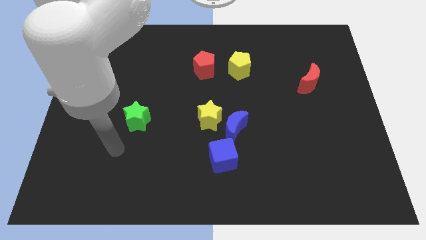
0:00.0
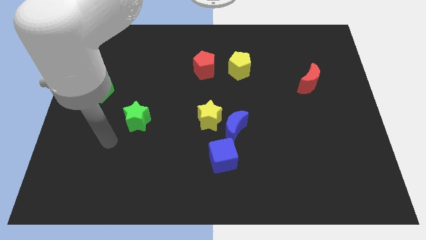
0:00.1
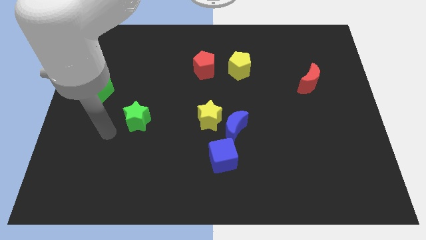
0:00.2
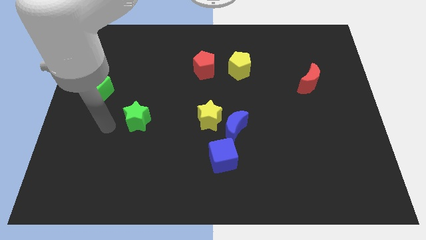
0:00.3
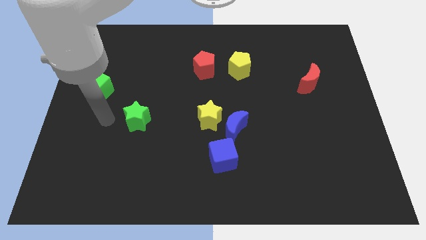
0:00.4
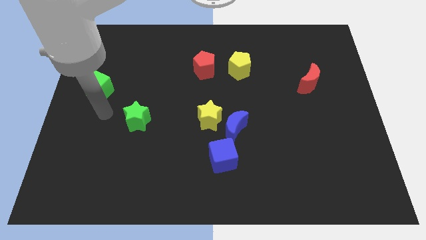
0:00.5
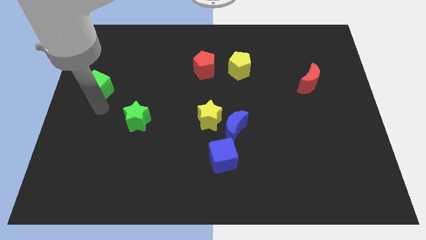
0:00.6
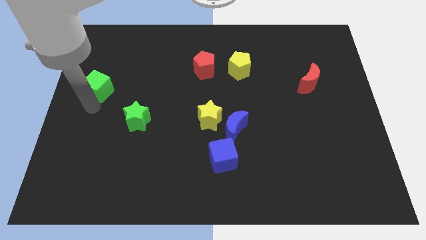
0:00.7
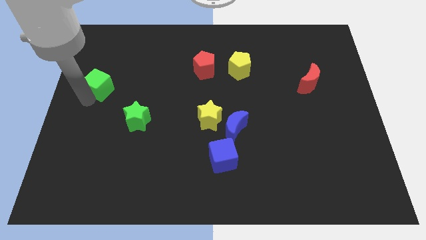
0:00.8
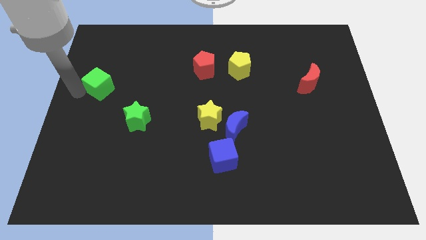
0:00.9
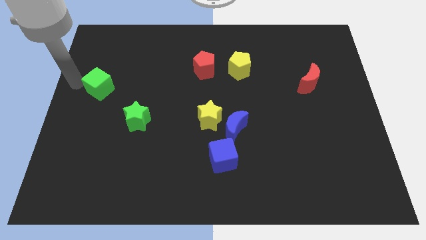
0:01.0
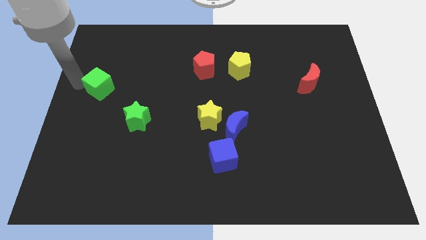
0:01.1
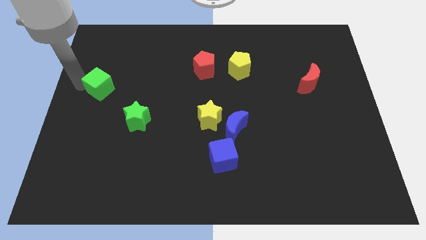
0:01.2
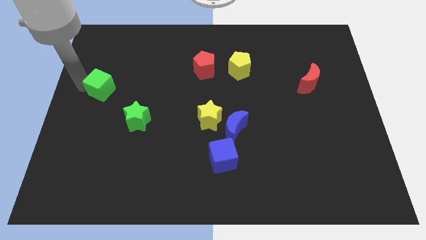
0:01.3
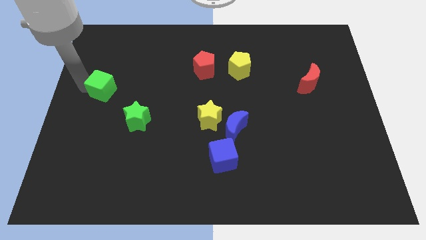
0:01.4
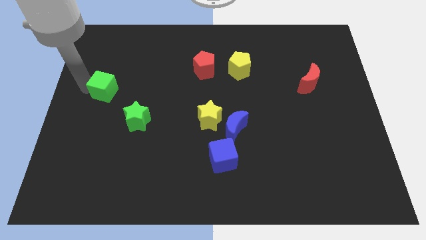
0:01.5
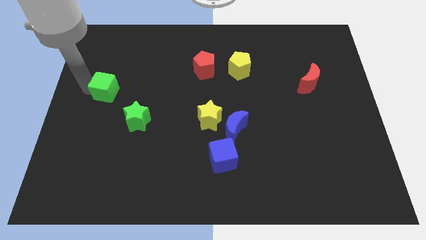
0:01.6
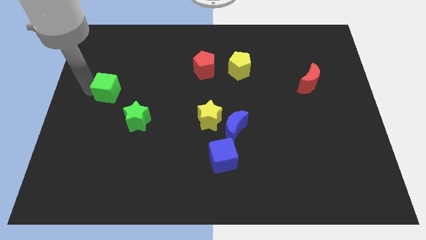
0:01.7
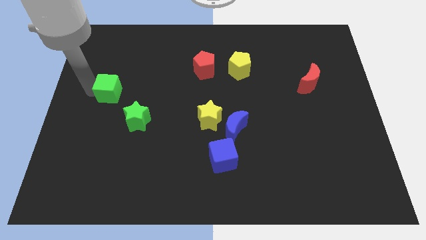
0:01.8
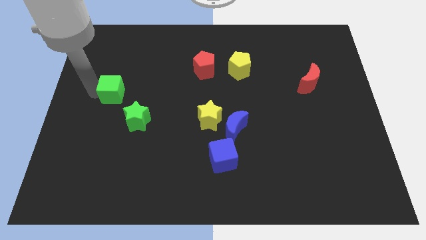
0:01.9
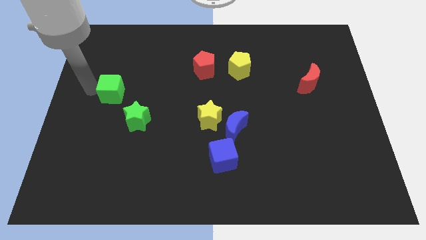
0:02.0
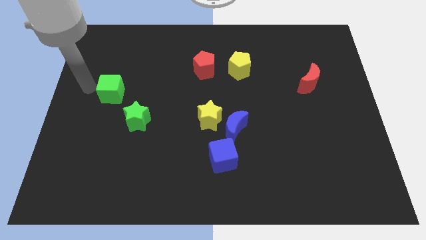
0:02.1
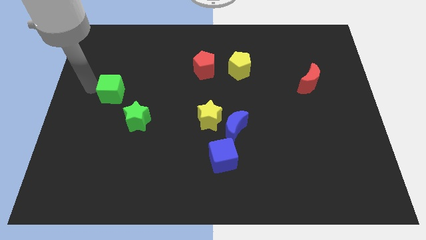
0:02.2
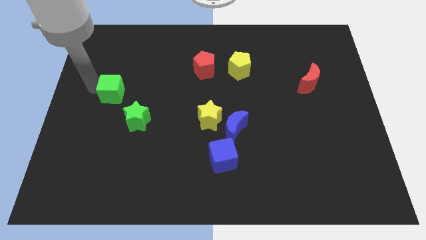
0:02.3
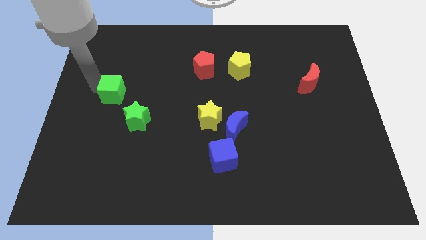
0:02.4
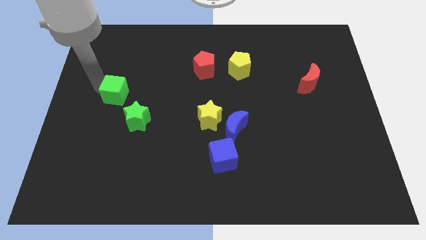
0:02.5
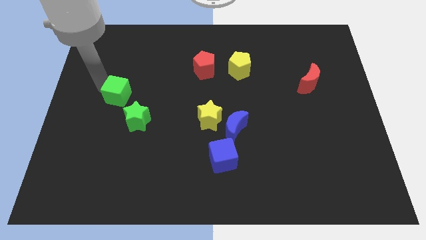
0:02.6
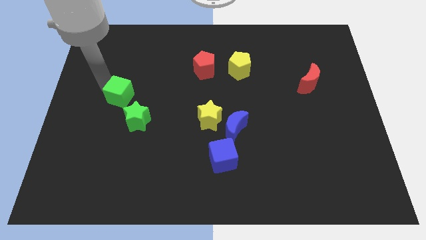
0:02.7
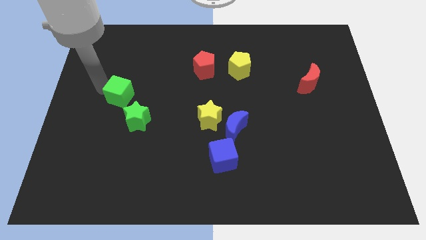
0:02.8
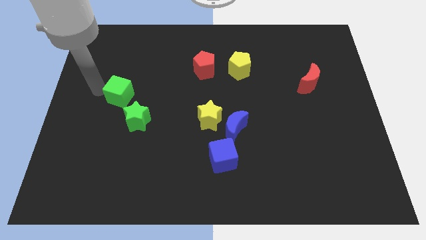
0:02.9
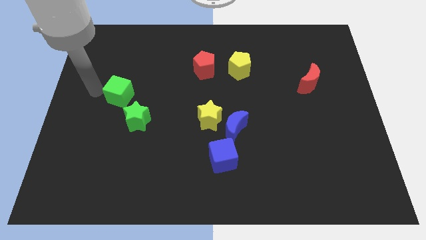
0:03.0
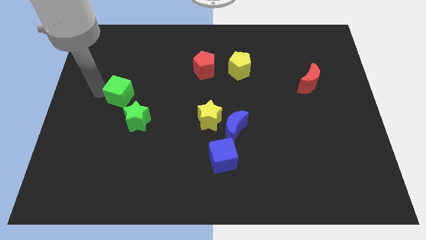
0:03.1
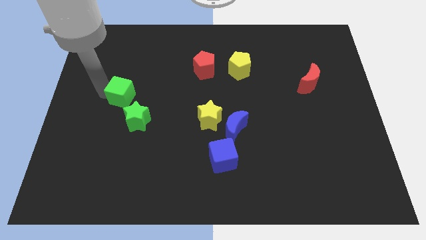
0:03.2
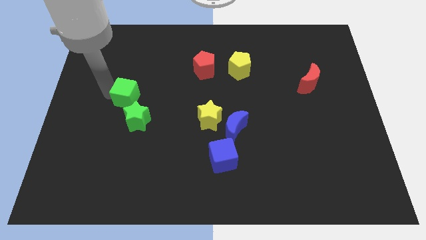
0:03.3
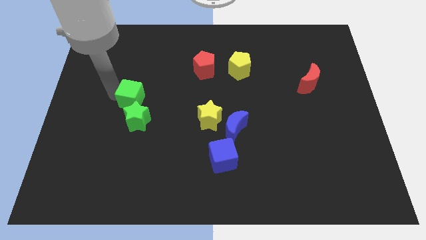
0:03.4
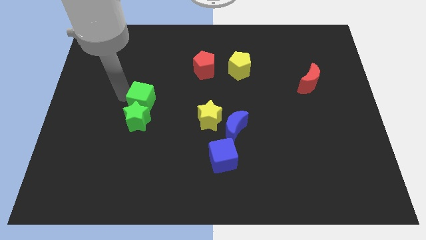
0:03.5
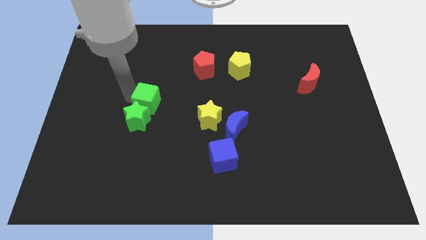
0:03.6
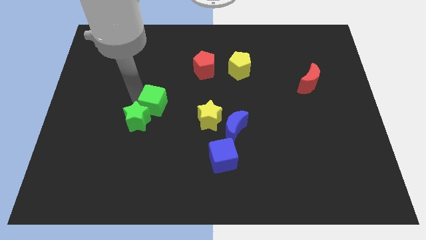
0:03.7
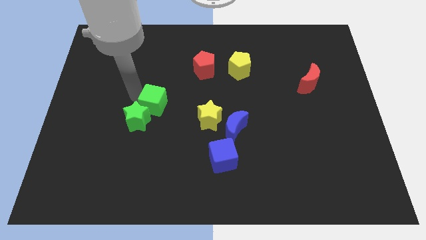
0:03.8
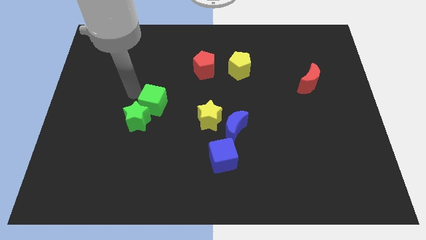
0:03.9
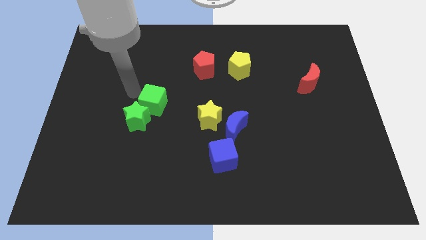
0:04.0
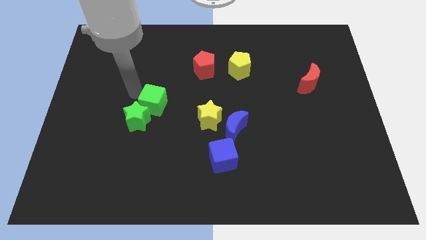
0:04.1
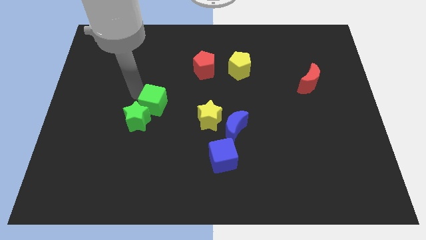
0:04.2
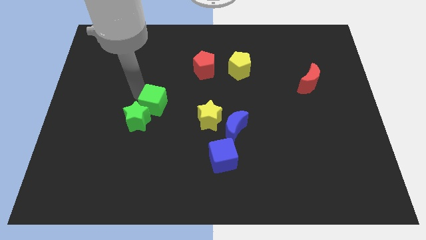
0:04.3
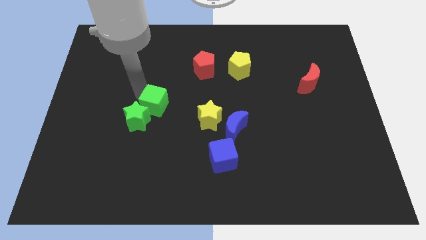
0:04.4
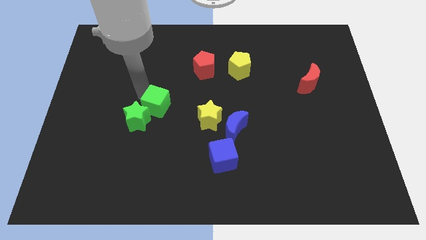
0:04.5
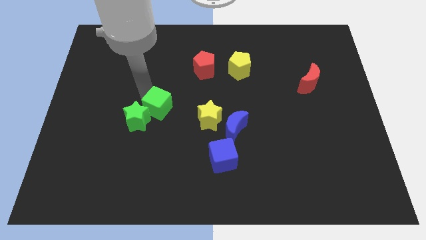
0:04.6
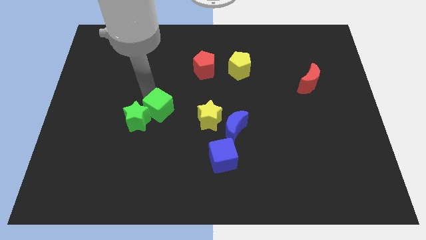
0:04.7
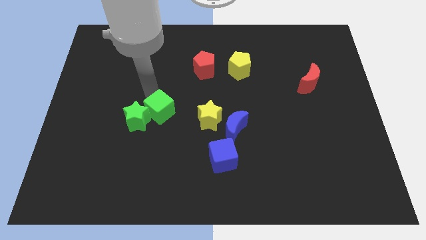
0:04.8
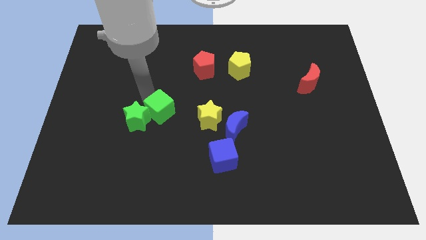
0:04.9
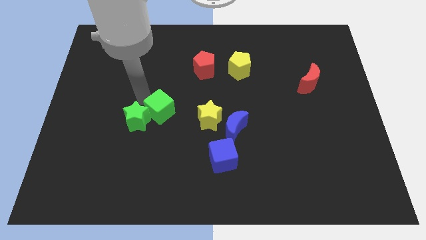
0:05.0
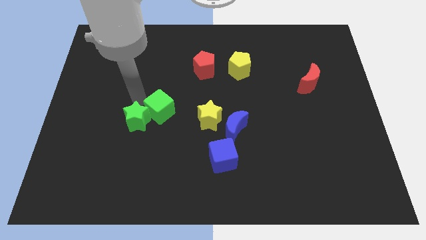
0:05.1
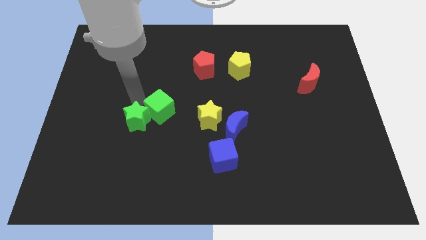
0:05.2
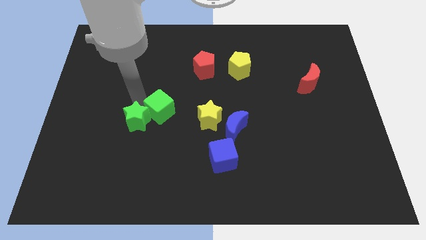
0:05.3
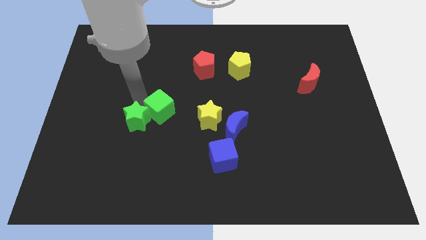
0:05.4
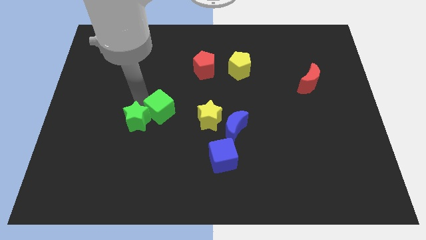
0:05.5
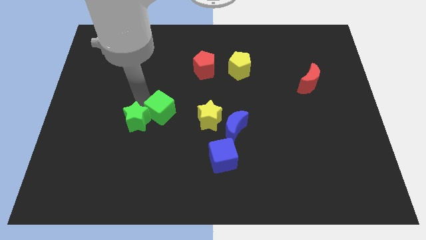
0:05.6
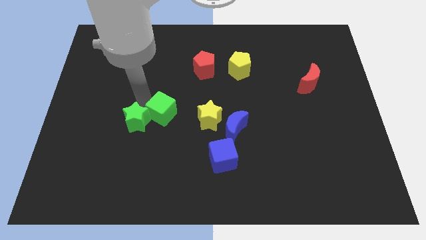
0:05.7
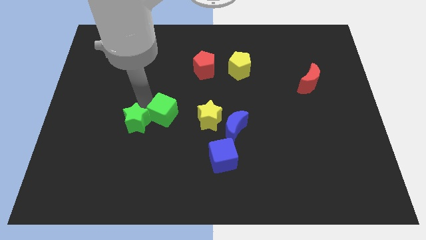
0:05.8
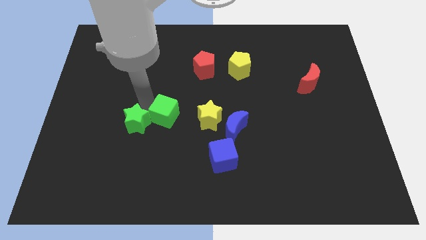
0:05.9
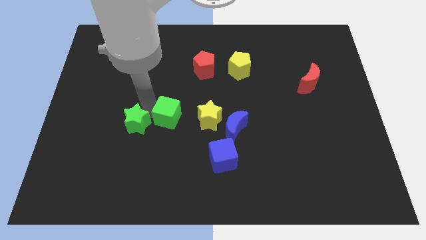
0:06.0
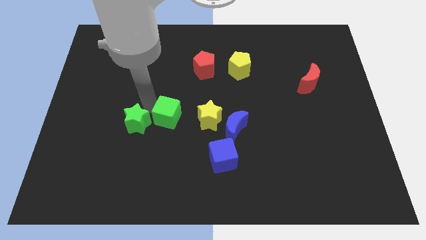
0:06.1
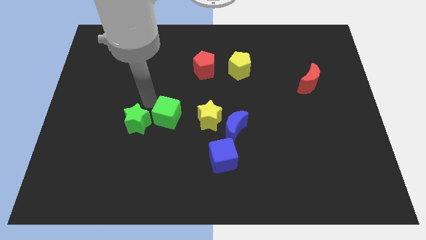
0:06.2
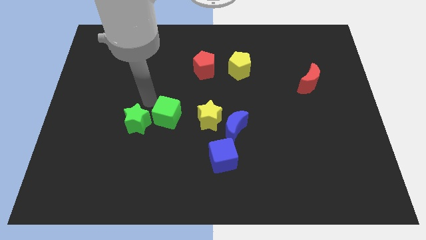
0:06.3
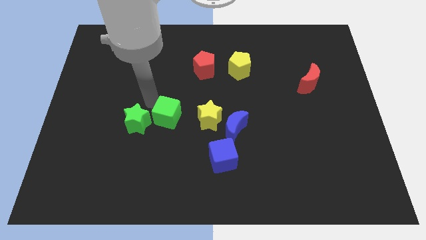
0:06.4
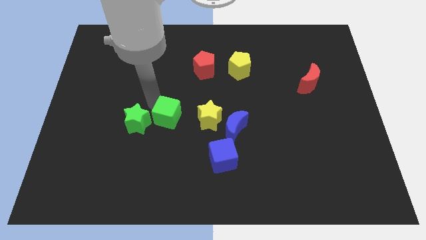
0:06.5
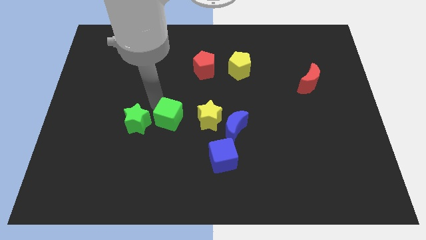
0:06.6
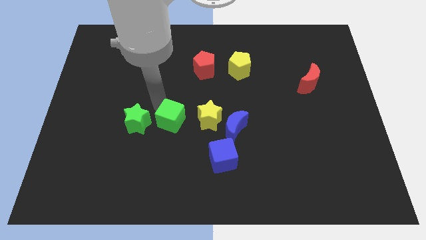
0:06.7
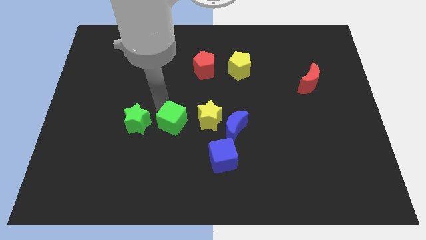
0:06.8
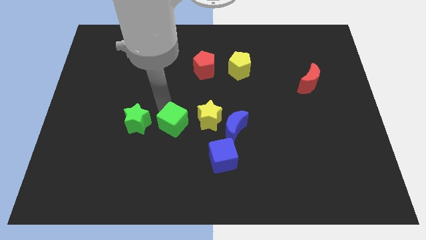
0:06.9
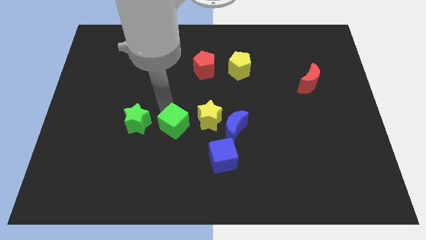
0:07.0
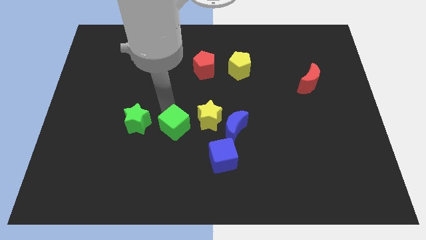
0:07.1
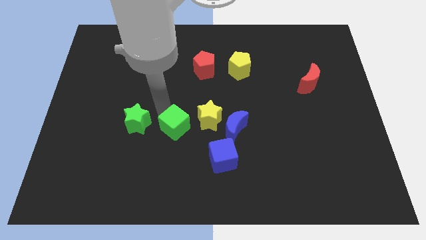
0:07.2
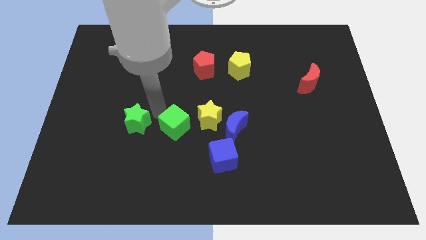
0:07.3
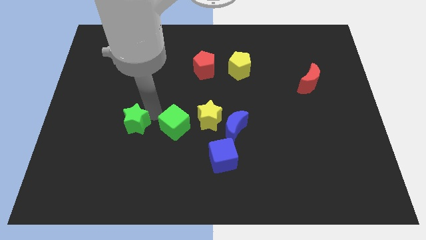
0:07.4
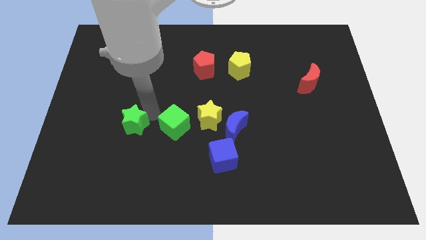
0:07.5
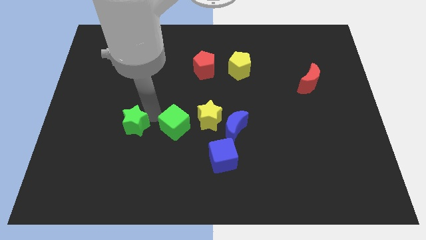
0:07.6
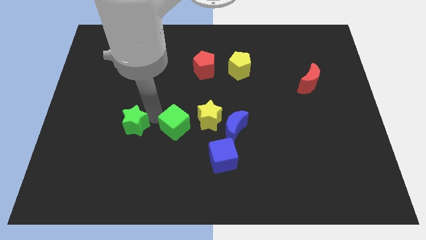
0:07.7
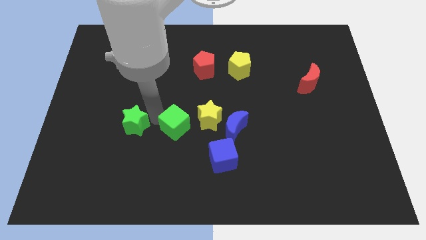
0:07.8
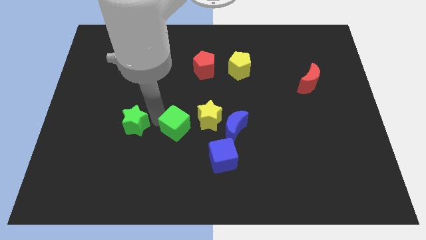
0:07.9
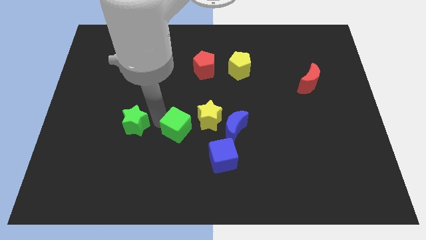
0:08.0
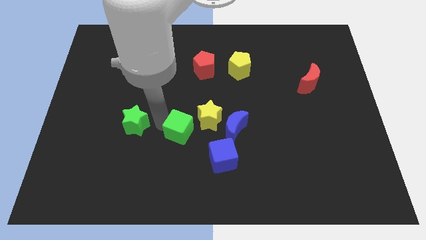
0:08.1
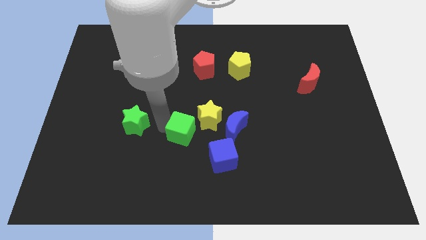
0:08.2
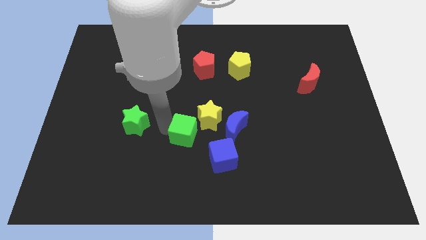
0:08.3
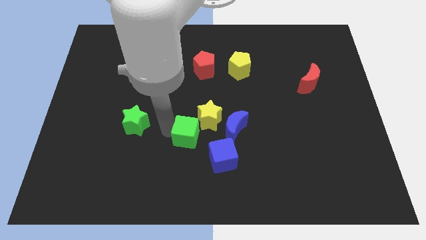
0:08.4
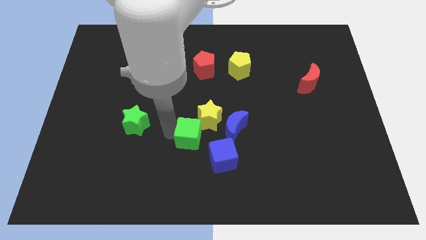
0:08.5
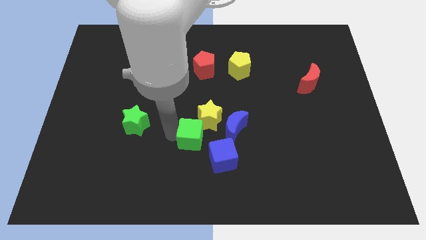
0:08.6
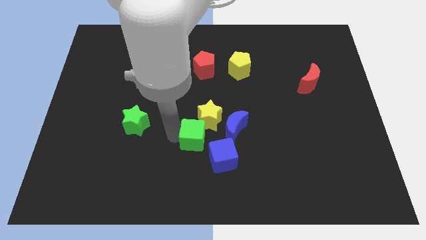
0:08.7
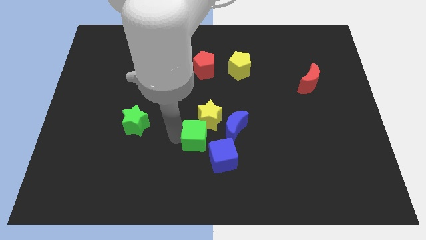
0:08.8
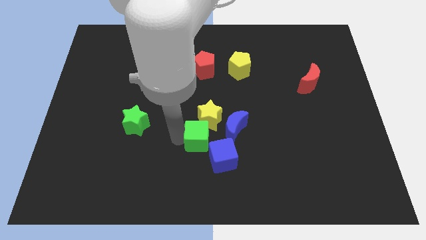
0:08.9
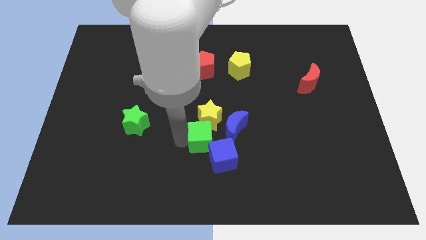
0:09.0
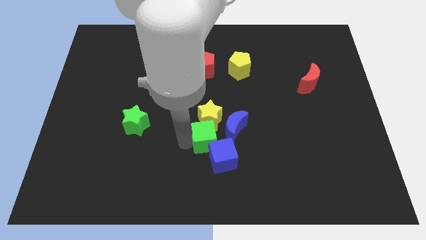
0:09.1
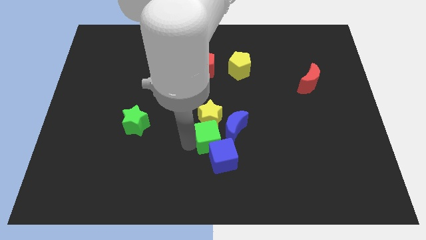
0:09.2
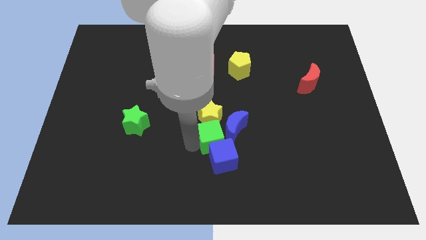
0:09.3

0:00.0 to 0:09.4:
slide the green cube close to the blue moon
